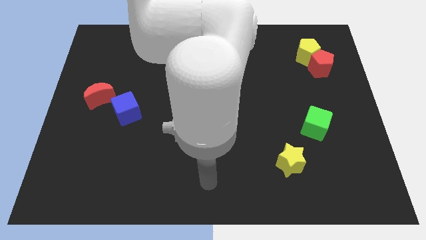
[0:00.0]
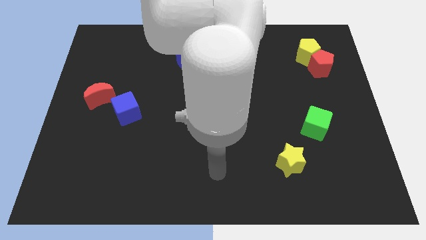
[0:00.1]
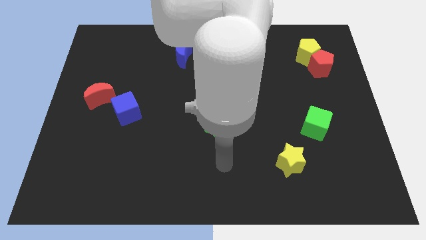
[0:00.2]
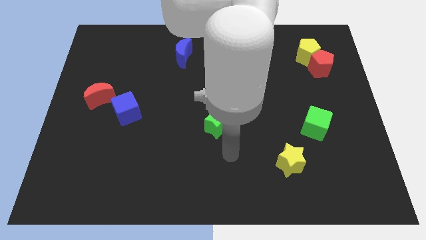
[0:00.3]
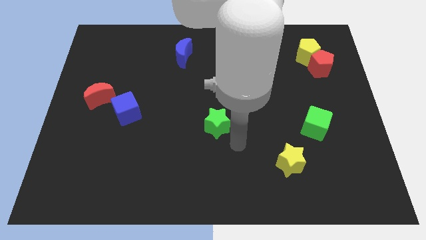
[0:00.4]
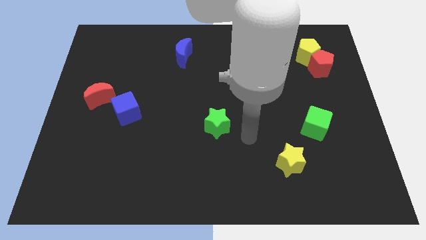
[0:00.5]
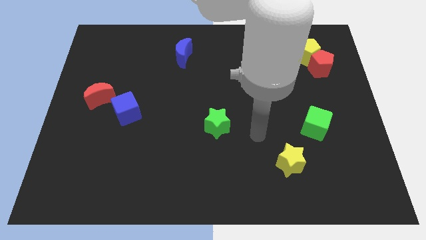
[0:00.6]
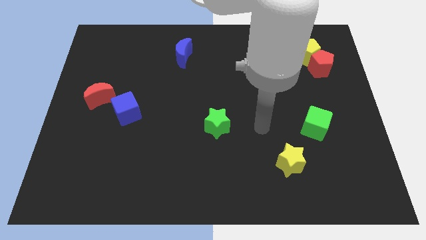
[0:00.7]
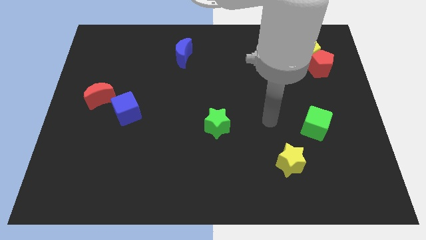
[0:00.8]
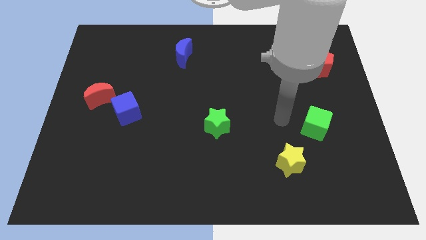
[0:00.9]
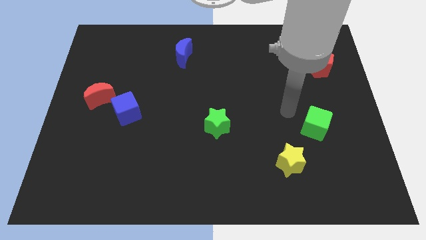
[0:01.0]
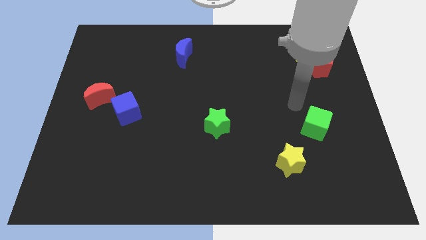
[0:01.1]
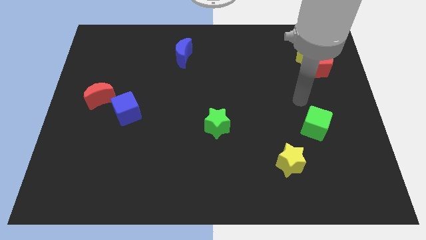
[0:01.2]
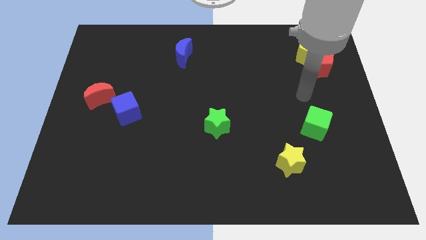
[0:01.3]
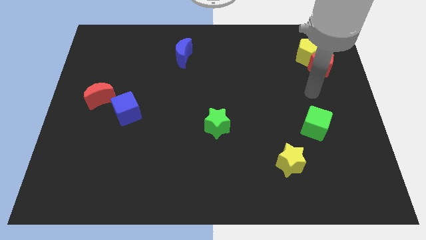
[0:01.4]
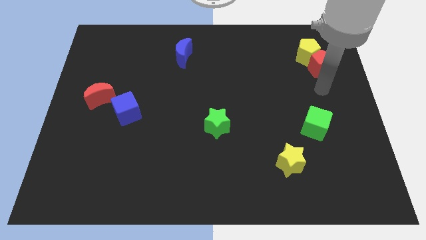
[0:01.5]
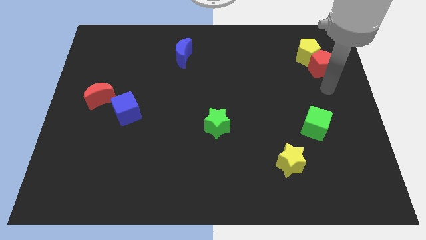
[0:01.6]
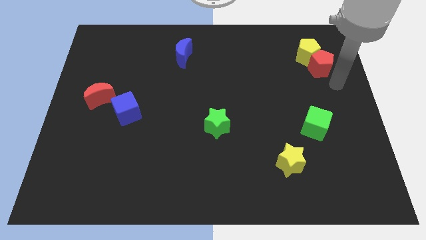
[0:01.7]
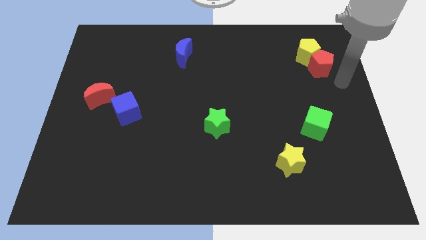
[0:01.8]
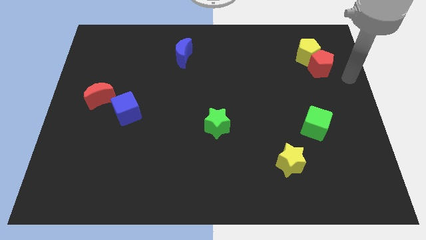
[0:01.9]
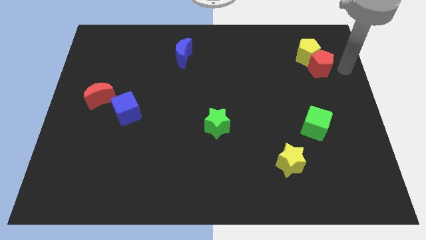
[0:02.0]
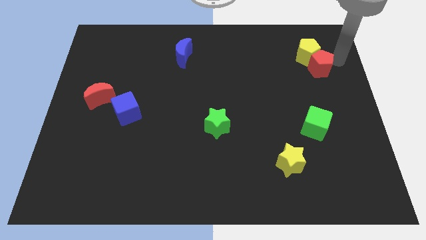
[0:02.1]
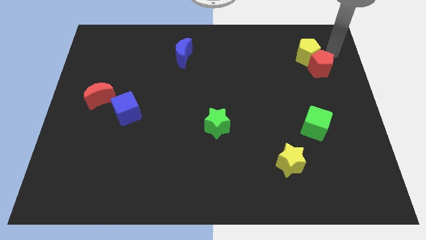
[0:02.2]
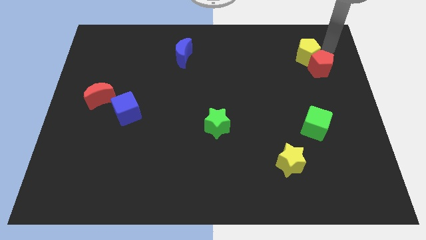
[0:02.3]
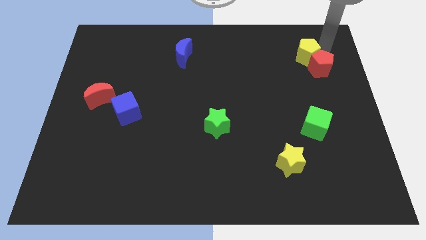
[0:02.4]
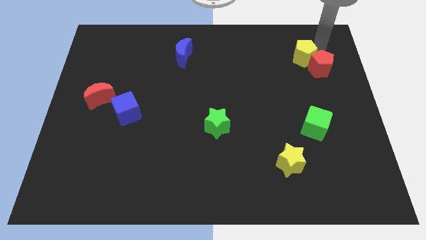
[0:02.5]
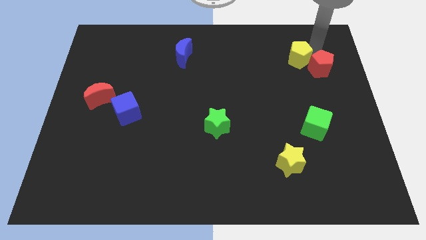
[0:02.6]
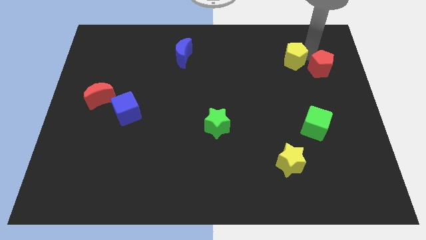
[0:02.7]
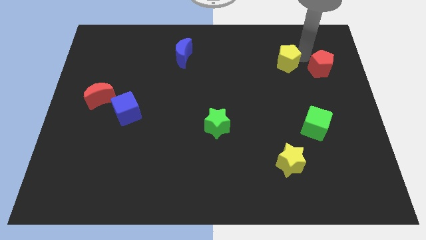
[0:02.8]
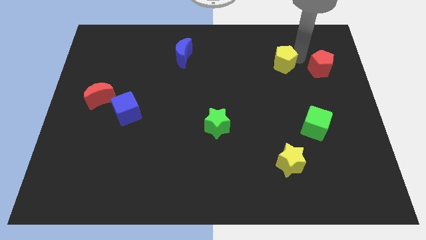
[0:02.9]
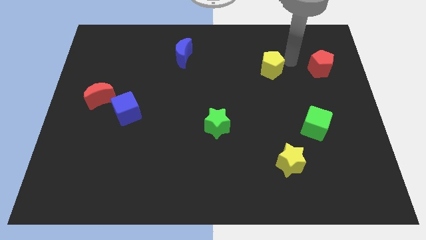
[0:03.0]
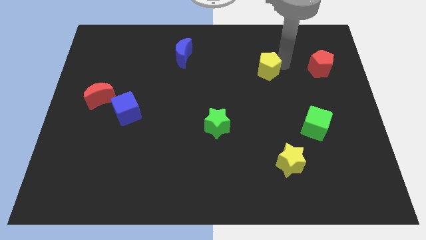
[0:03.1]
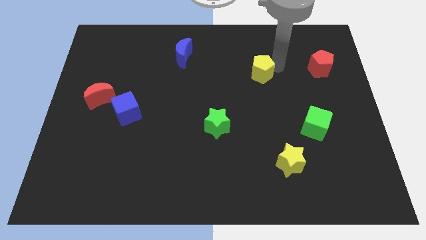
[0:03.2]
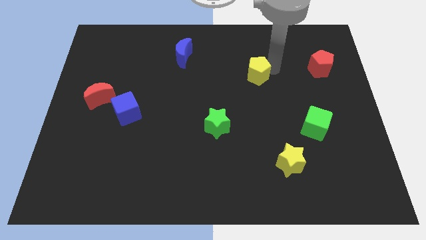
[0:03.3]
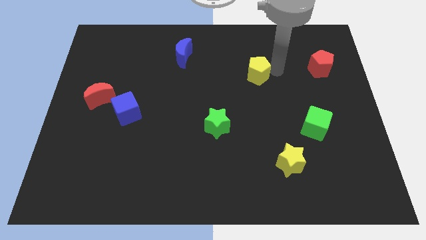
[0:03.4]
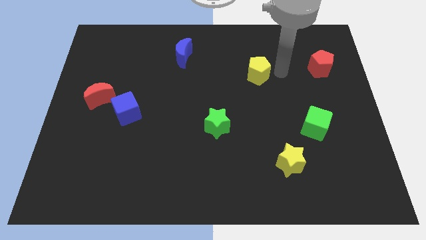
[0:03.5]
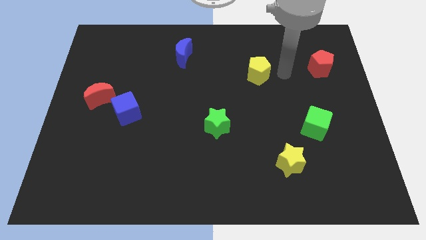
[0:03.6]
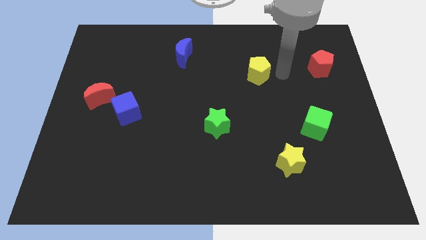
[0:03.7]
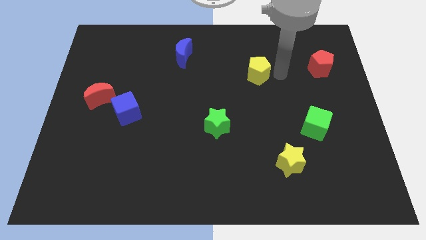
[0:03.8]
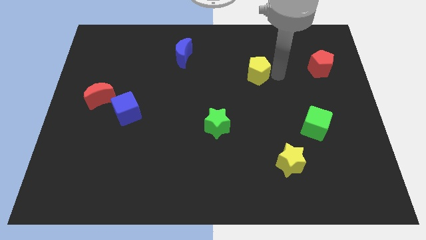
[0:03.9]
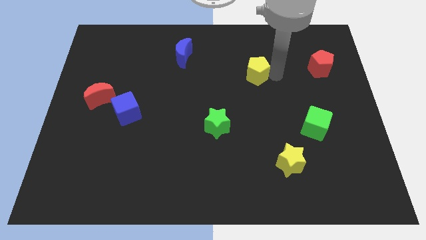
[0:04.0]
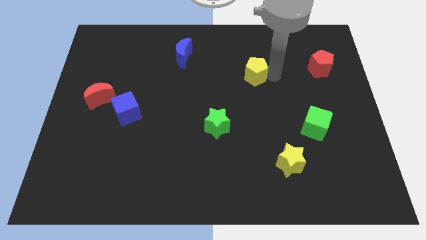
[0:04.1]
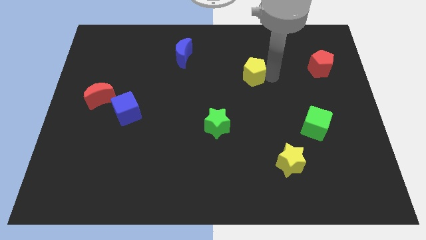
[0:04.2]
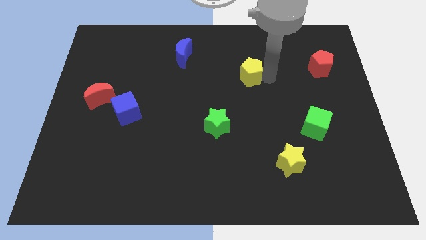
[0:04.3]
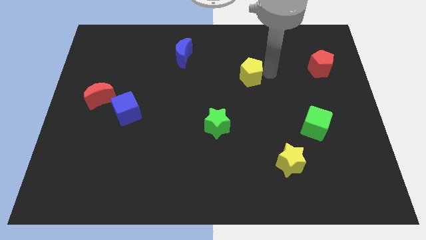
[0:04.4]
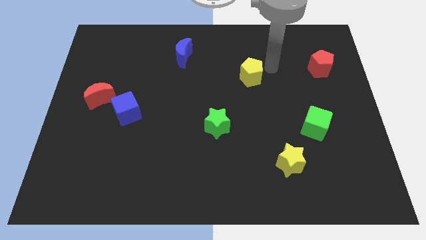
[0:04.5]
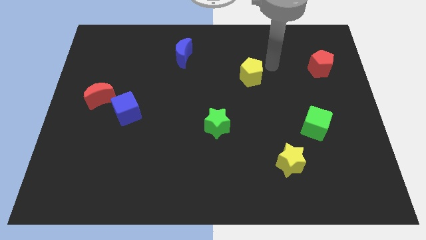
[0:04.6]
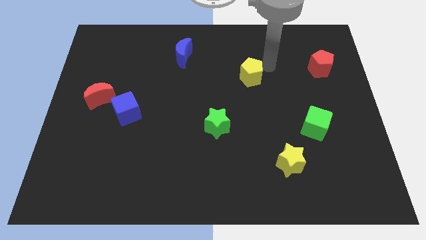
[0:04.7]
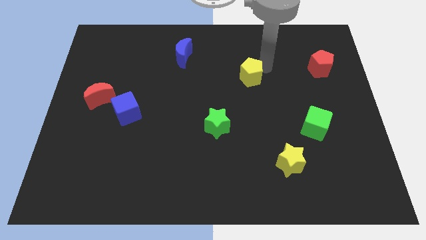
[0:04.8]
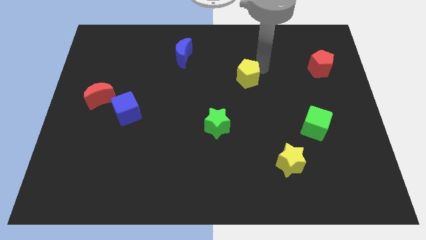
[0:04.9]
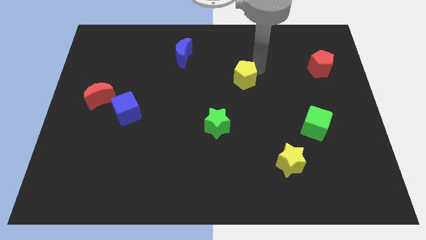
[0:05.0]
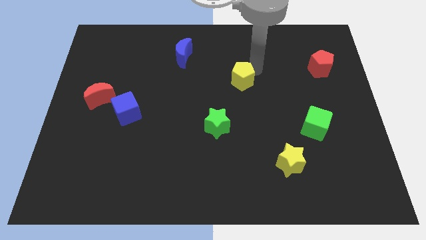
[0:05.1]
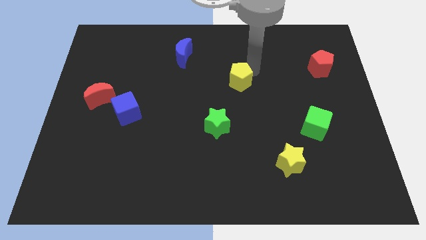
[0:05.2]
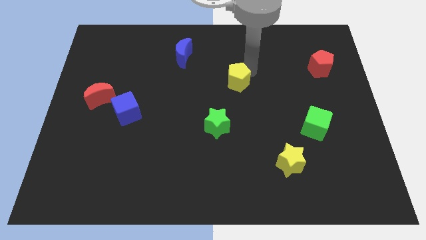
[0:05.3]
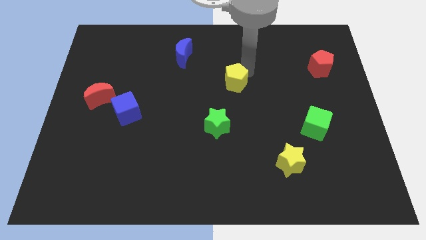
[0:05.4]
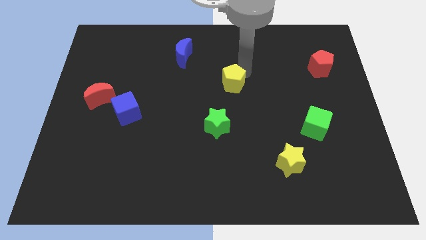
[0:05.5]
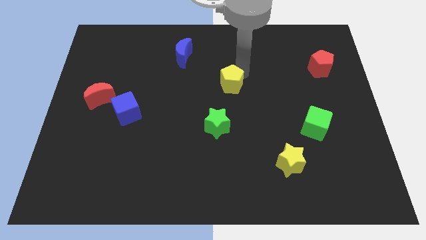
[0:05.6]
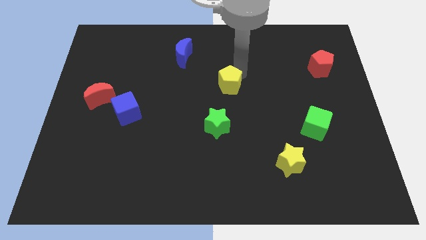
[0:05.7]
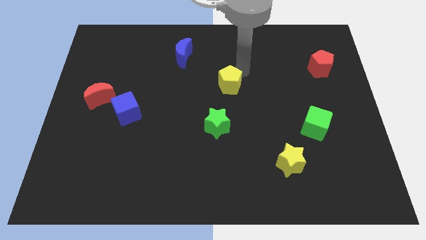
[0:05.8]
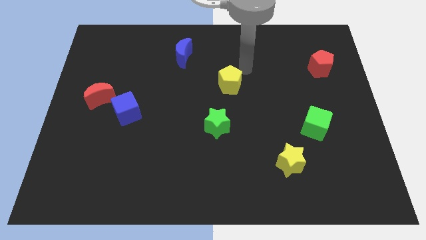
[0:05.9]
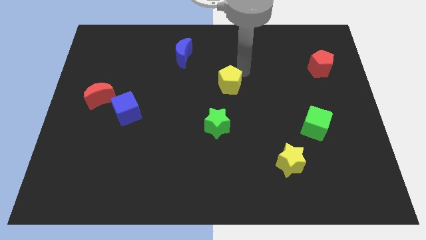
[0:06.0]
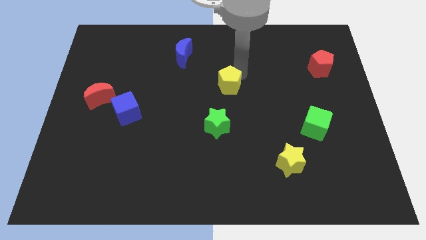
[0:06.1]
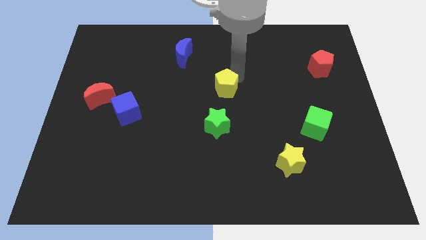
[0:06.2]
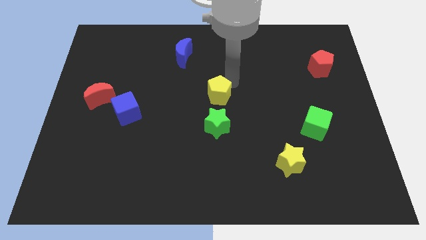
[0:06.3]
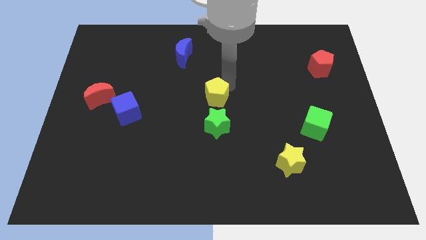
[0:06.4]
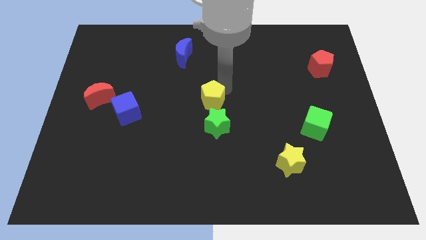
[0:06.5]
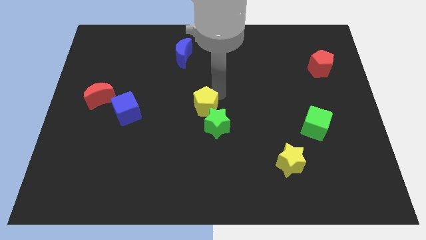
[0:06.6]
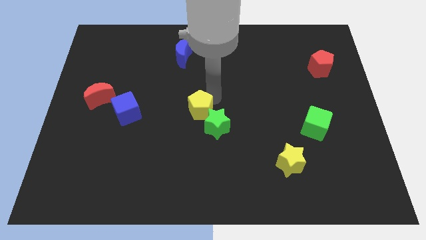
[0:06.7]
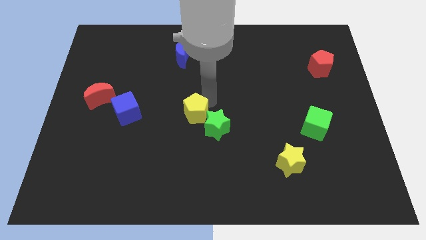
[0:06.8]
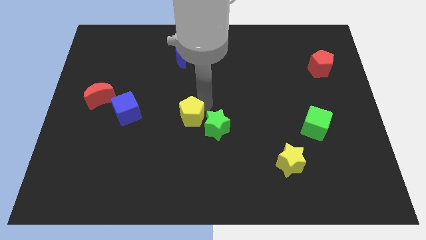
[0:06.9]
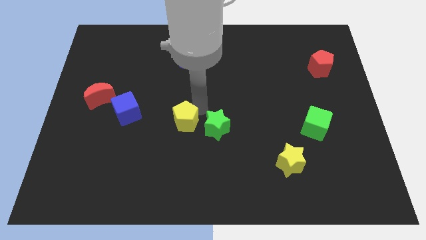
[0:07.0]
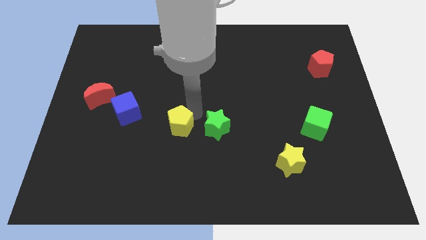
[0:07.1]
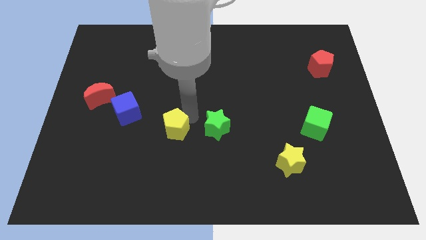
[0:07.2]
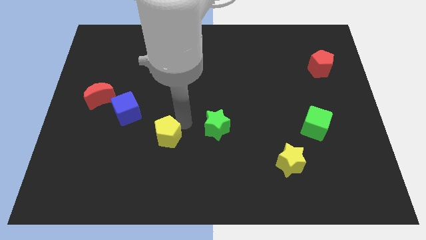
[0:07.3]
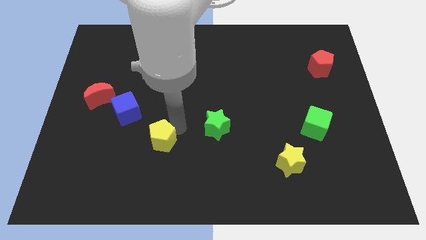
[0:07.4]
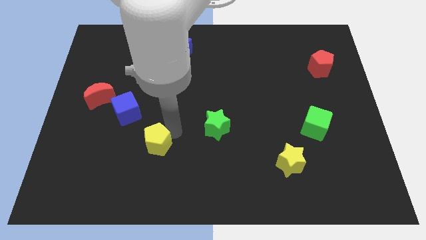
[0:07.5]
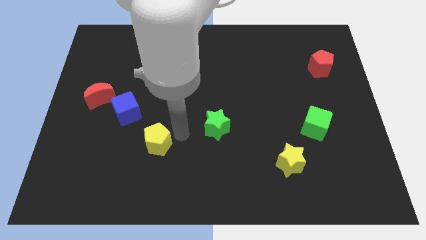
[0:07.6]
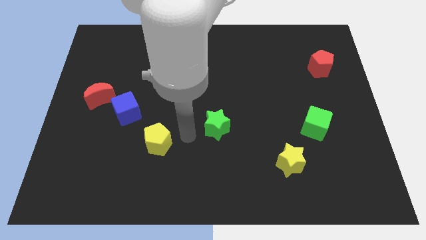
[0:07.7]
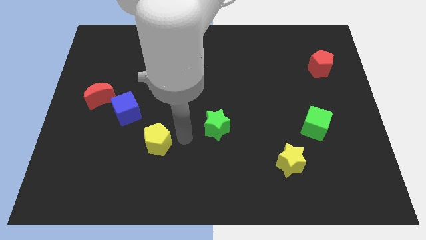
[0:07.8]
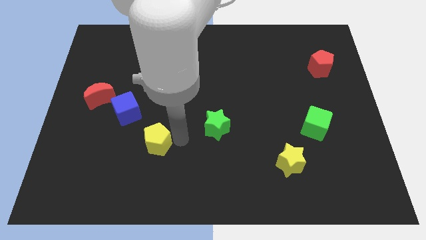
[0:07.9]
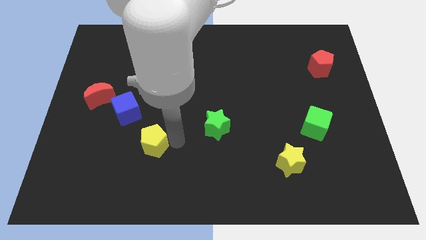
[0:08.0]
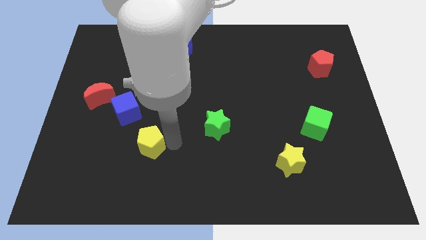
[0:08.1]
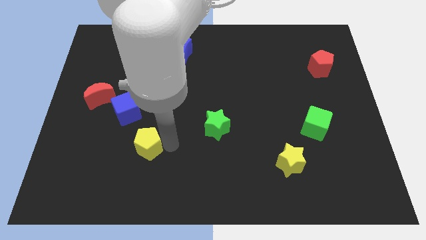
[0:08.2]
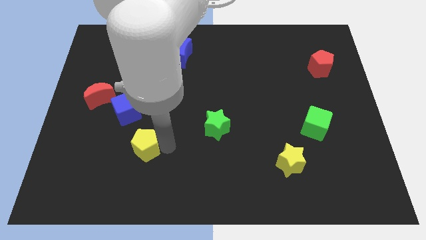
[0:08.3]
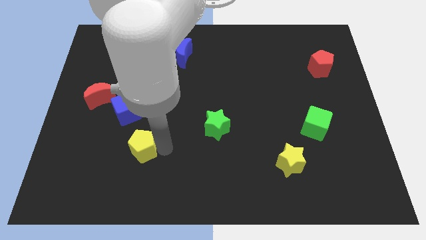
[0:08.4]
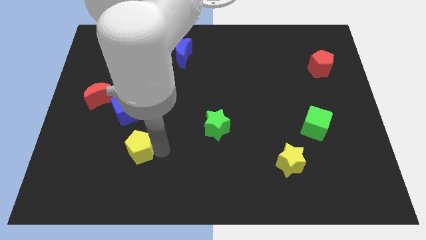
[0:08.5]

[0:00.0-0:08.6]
move the yellow pentagon to the bottom side of the blue cube

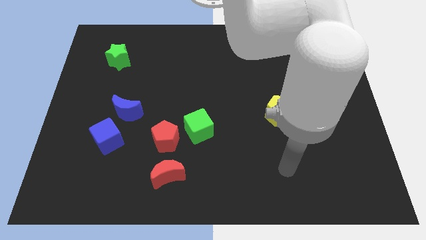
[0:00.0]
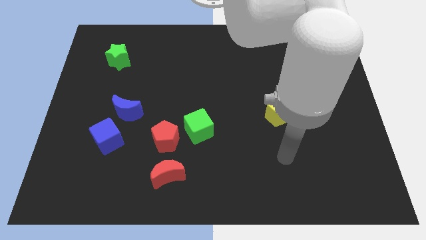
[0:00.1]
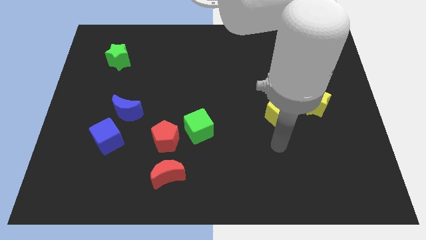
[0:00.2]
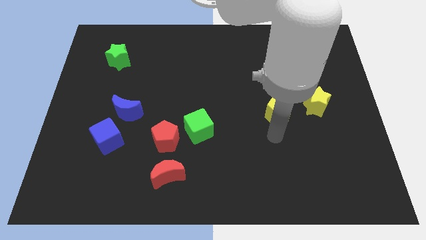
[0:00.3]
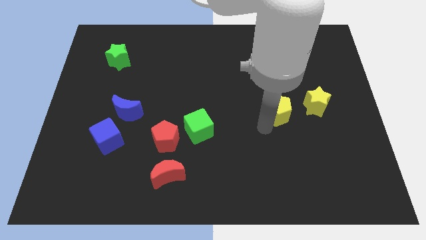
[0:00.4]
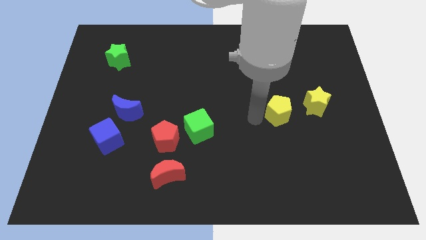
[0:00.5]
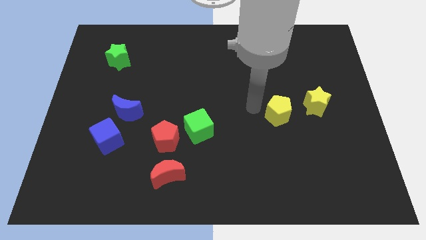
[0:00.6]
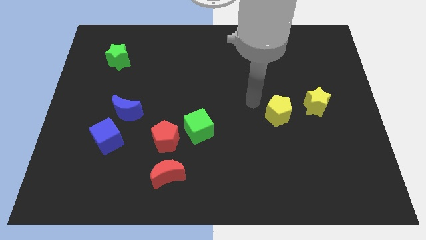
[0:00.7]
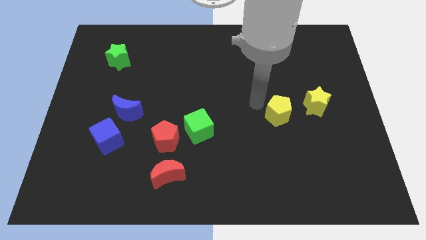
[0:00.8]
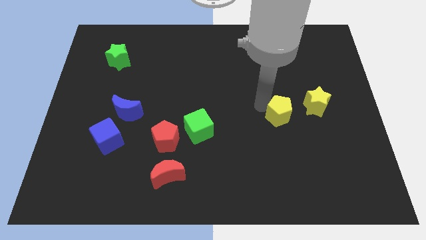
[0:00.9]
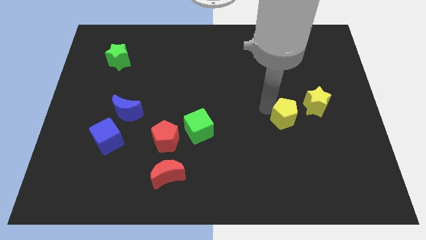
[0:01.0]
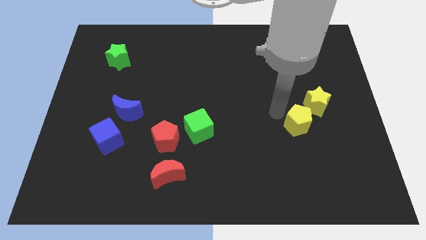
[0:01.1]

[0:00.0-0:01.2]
move the yellow pentagon to the bottom of the yellow star
